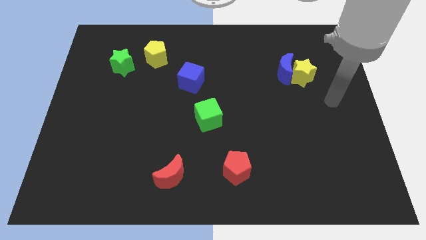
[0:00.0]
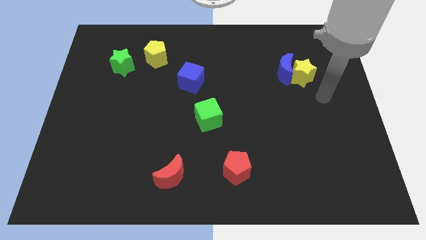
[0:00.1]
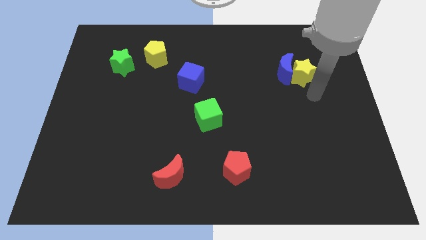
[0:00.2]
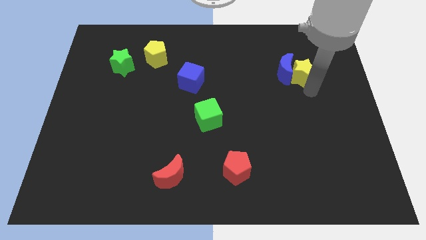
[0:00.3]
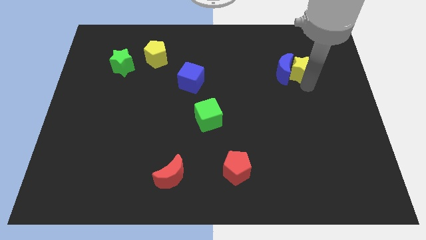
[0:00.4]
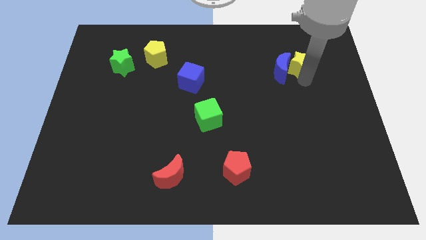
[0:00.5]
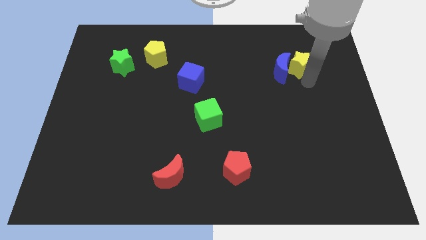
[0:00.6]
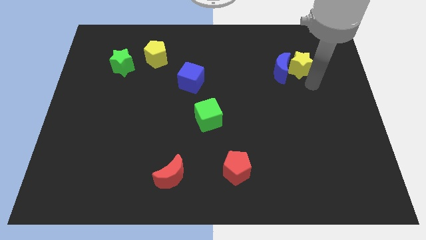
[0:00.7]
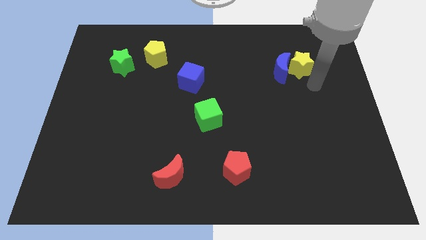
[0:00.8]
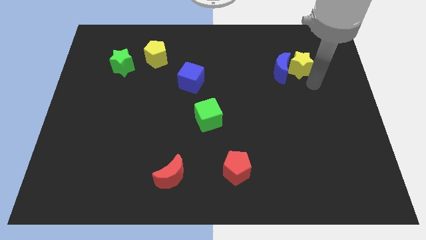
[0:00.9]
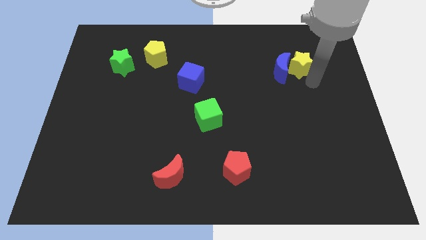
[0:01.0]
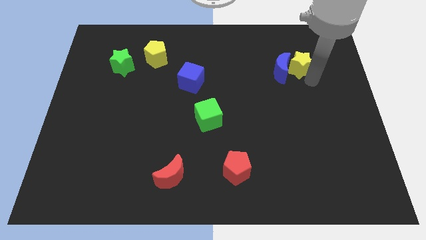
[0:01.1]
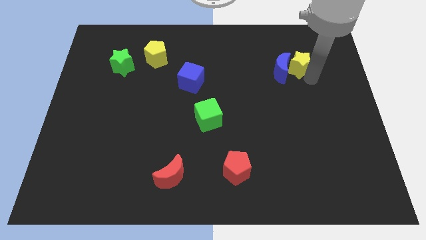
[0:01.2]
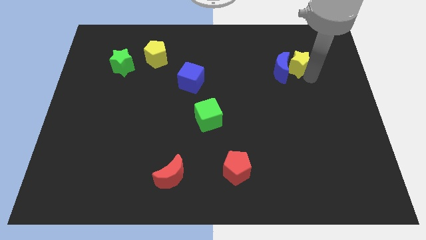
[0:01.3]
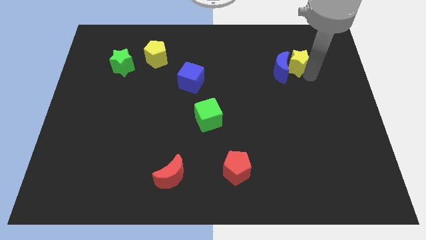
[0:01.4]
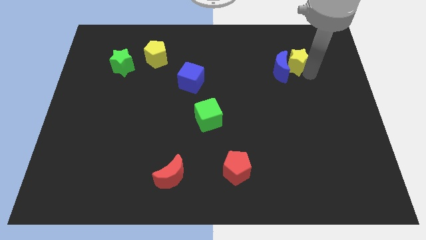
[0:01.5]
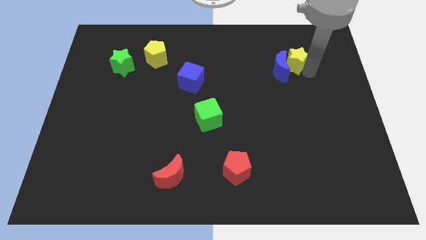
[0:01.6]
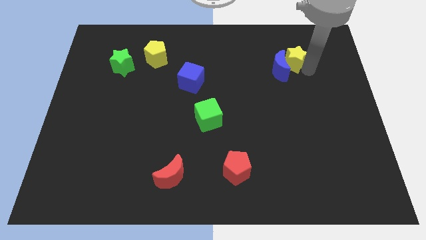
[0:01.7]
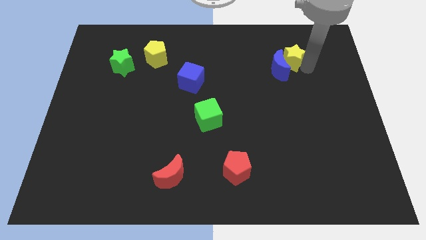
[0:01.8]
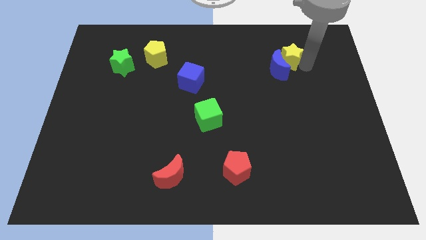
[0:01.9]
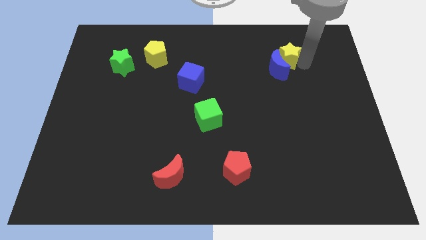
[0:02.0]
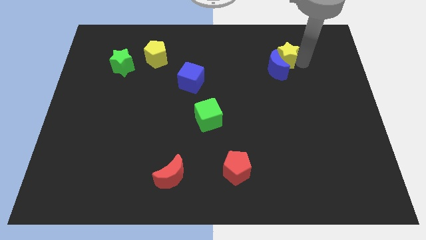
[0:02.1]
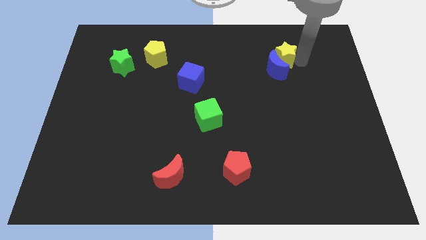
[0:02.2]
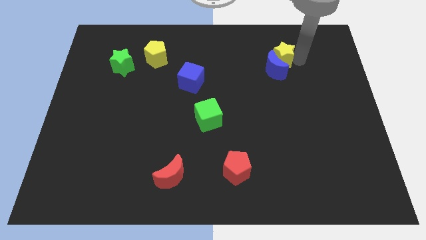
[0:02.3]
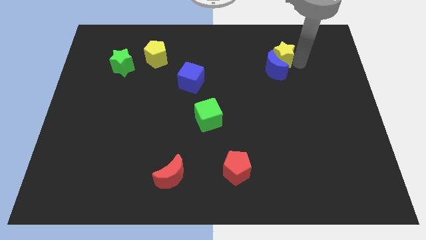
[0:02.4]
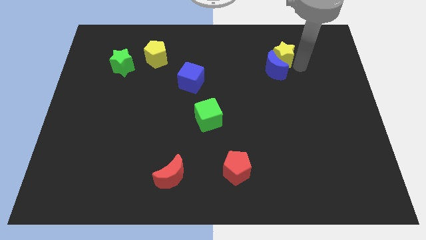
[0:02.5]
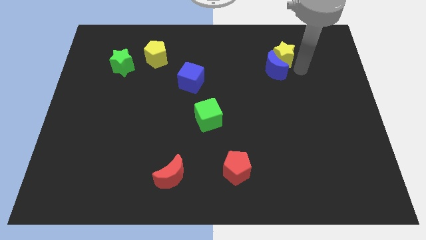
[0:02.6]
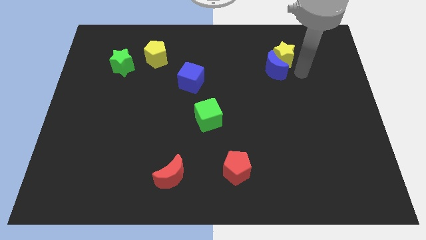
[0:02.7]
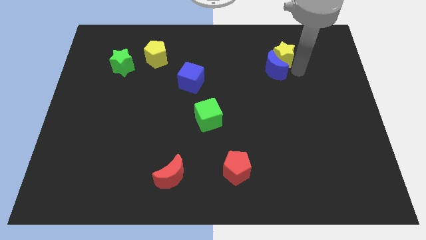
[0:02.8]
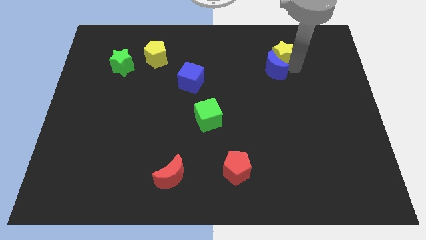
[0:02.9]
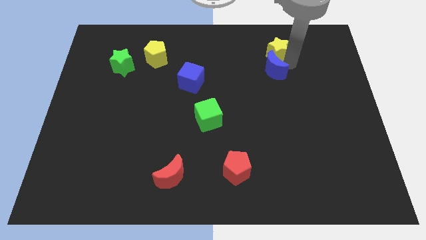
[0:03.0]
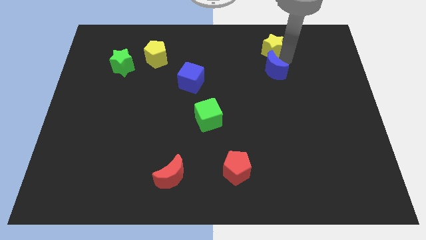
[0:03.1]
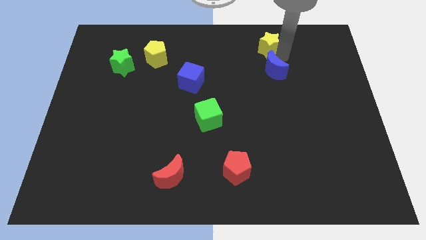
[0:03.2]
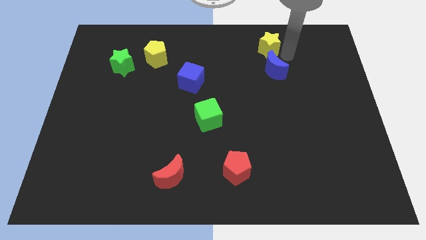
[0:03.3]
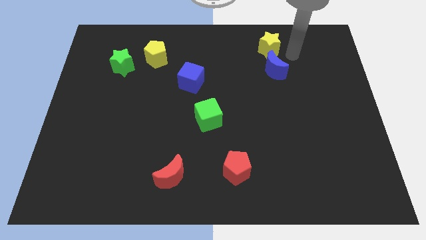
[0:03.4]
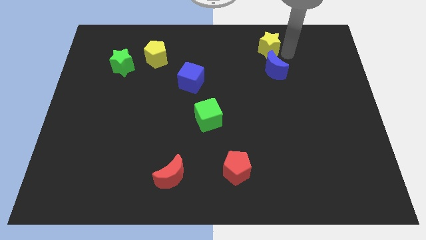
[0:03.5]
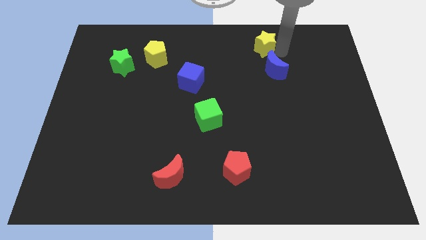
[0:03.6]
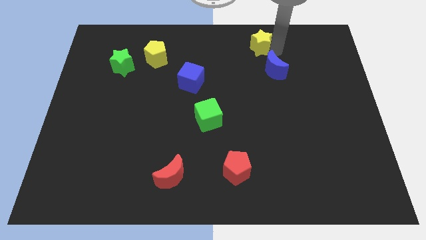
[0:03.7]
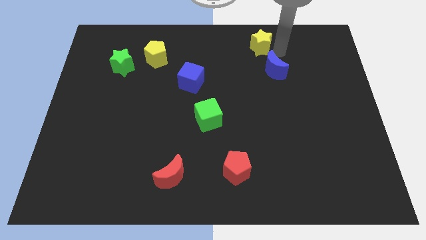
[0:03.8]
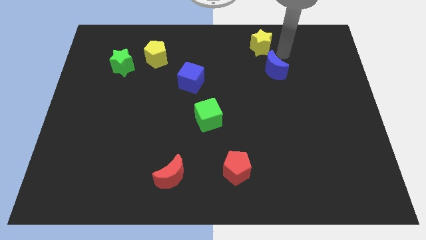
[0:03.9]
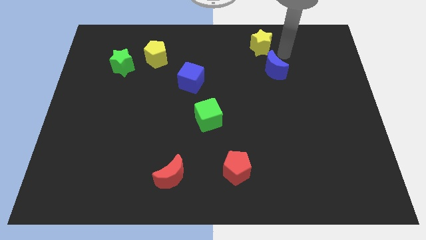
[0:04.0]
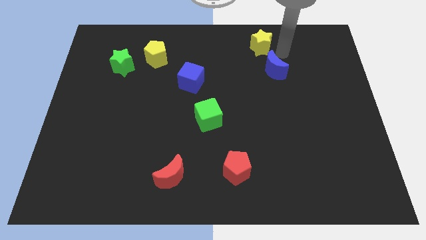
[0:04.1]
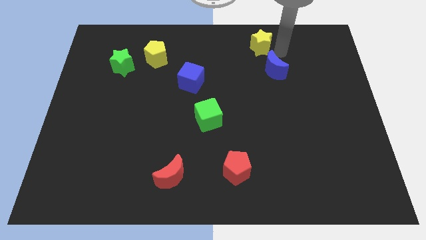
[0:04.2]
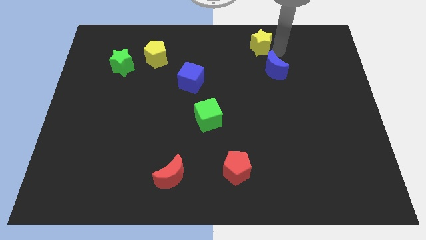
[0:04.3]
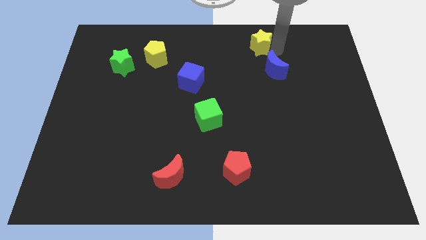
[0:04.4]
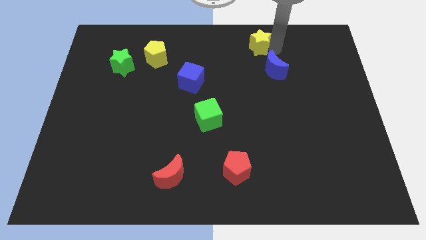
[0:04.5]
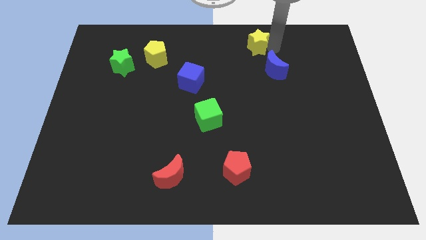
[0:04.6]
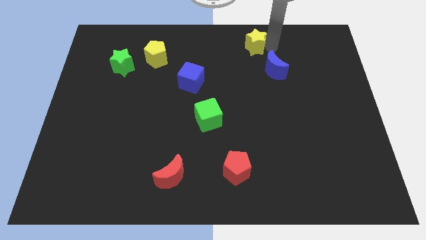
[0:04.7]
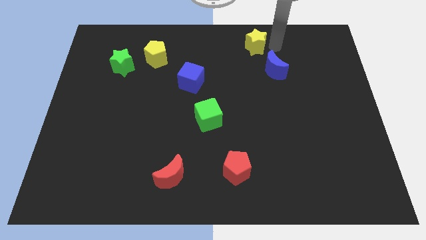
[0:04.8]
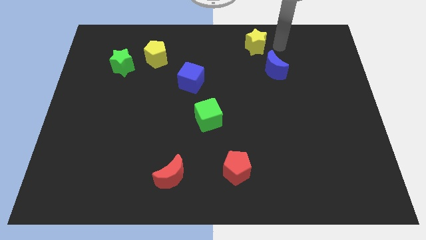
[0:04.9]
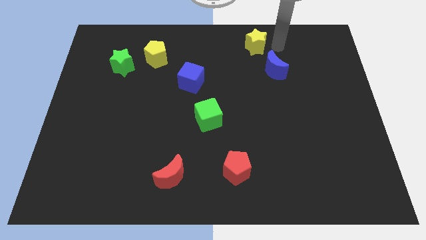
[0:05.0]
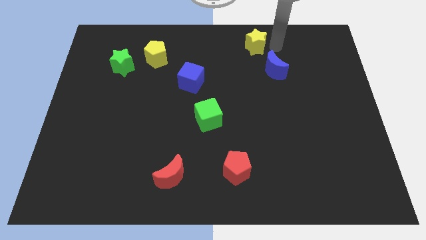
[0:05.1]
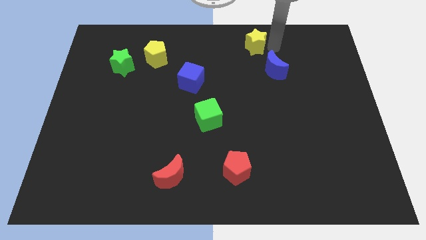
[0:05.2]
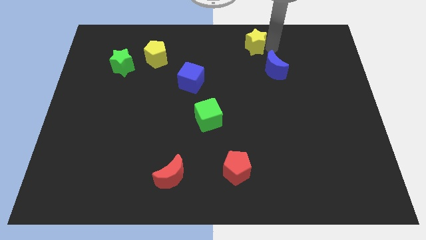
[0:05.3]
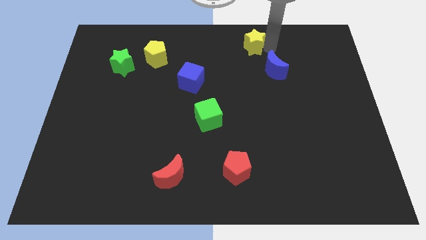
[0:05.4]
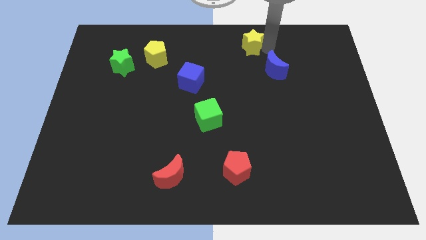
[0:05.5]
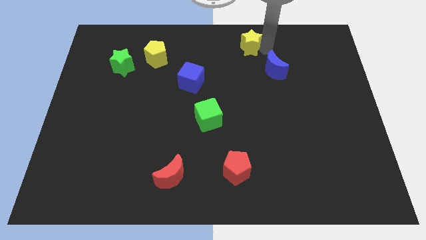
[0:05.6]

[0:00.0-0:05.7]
slide the yellow star to the top side

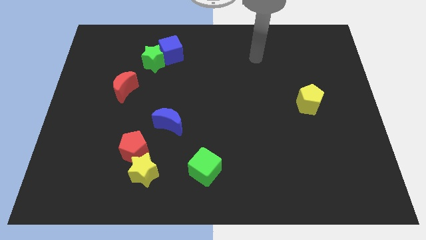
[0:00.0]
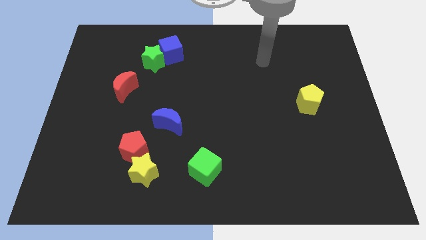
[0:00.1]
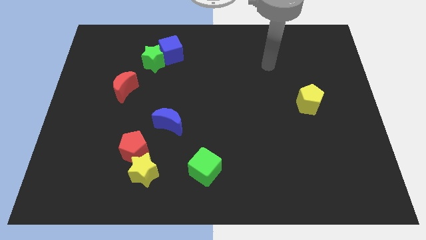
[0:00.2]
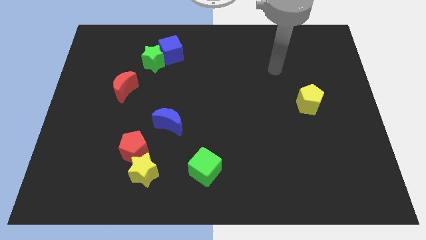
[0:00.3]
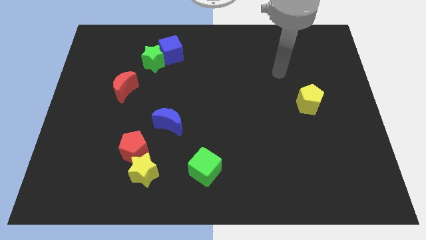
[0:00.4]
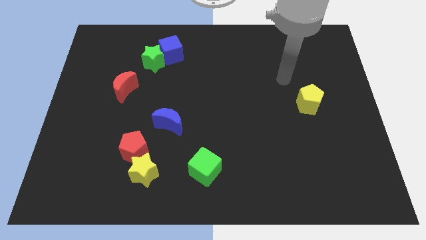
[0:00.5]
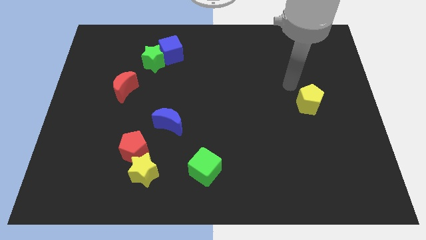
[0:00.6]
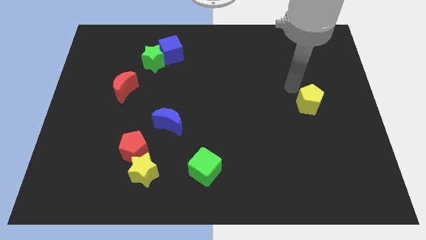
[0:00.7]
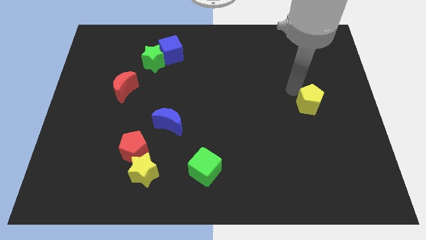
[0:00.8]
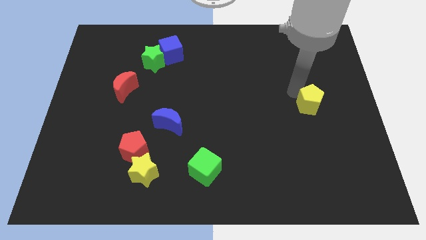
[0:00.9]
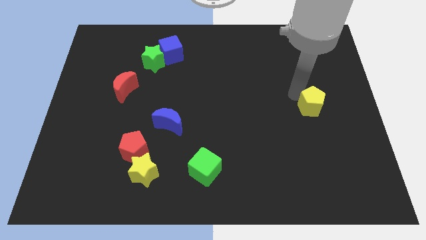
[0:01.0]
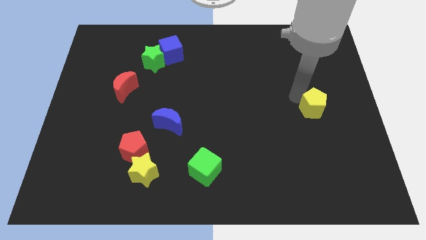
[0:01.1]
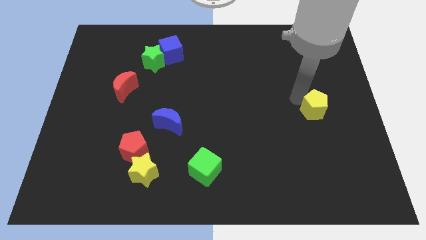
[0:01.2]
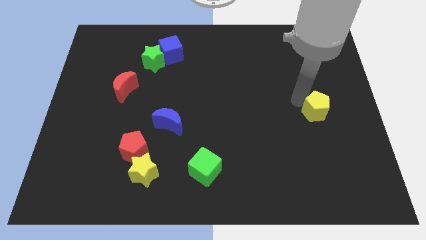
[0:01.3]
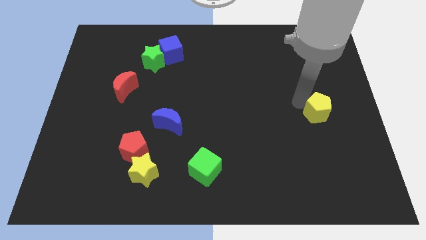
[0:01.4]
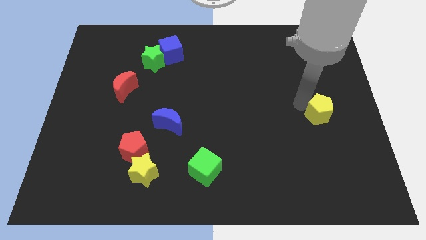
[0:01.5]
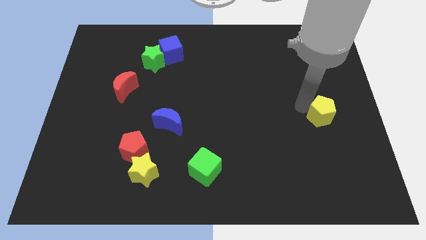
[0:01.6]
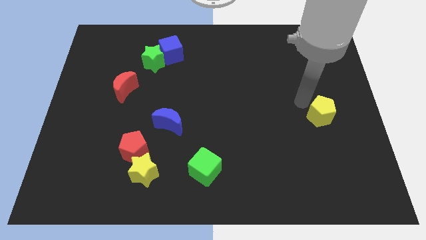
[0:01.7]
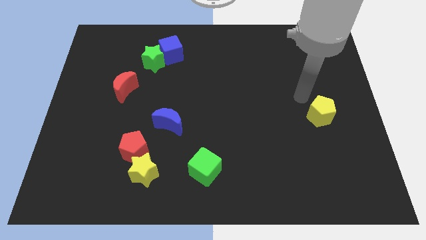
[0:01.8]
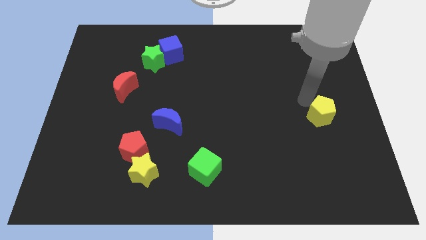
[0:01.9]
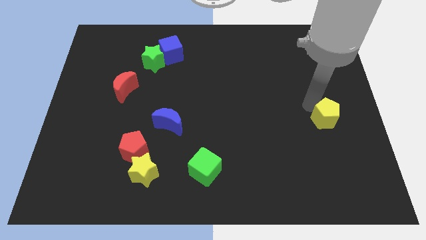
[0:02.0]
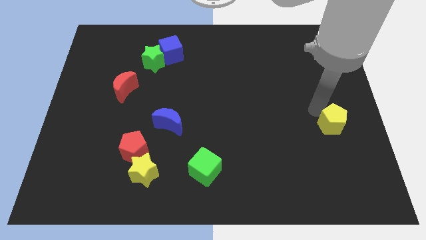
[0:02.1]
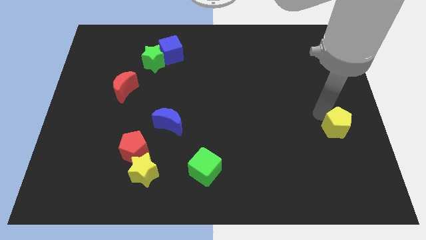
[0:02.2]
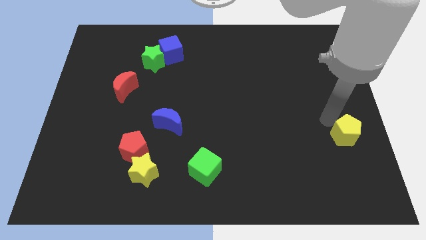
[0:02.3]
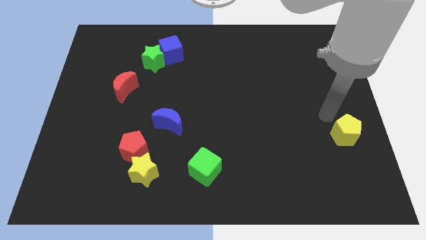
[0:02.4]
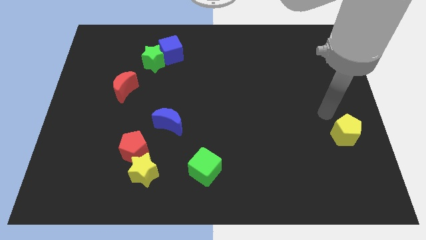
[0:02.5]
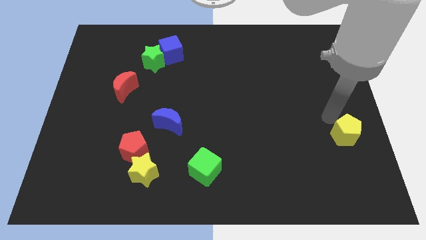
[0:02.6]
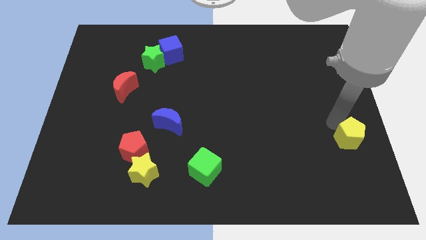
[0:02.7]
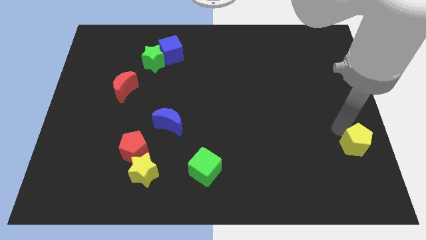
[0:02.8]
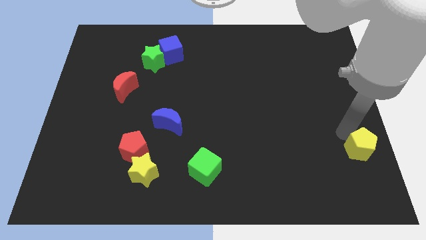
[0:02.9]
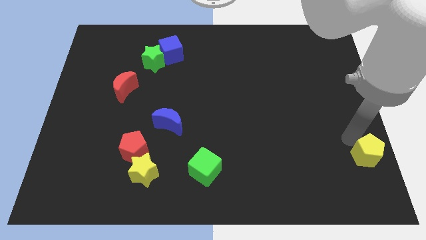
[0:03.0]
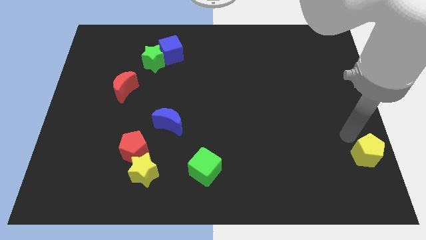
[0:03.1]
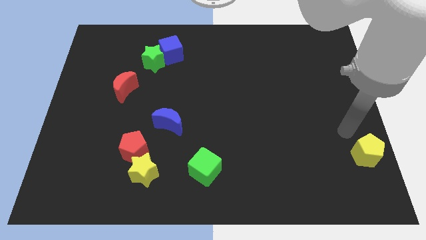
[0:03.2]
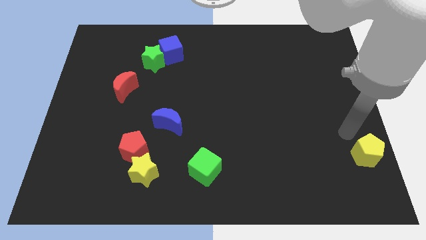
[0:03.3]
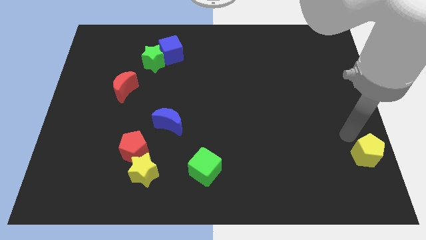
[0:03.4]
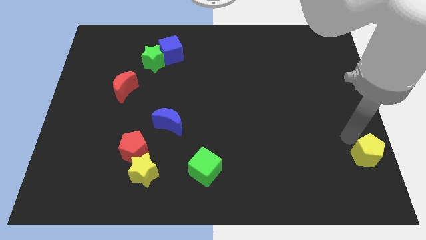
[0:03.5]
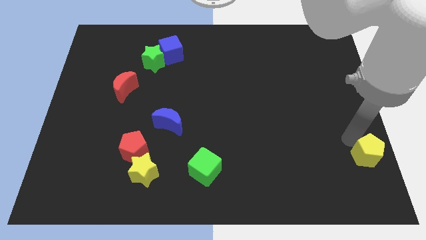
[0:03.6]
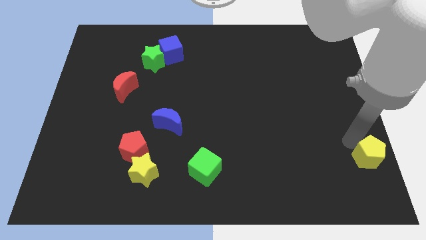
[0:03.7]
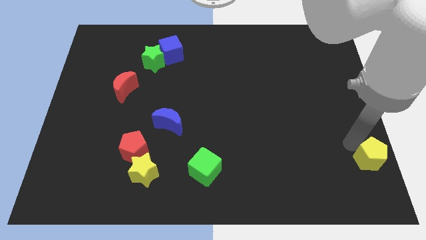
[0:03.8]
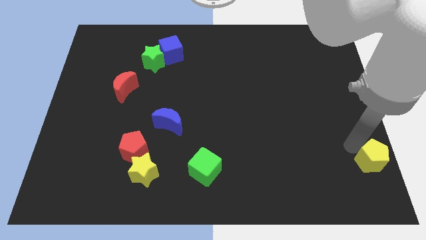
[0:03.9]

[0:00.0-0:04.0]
put the yellow pentagon to the bottom right corner
